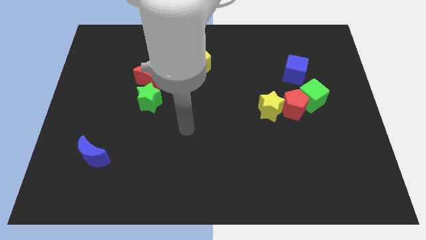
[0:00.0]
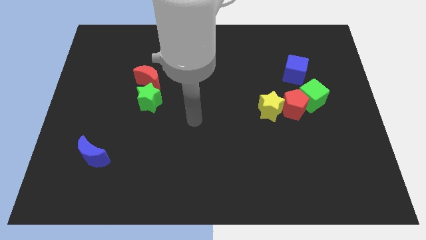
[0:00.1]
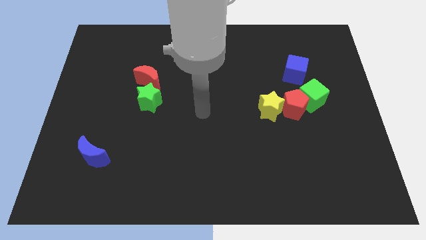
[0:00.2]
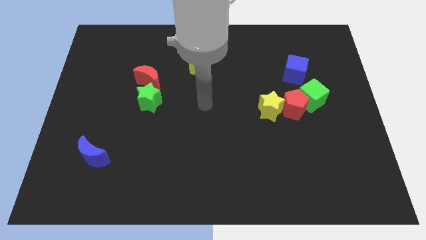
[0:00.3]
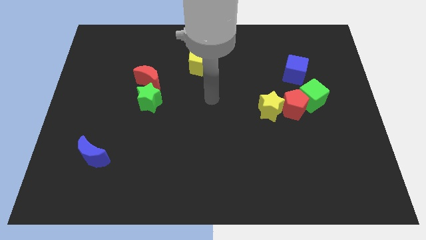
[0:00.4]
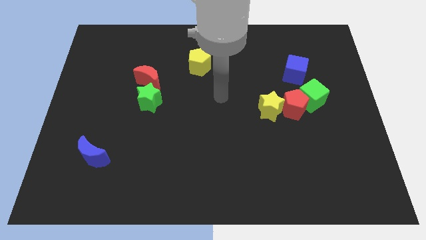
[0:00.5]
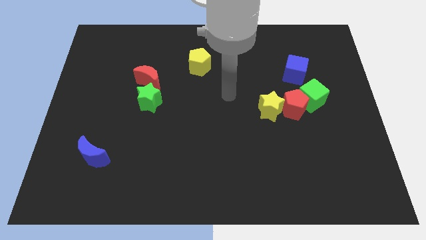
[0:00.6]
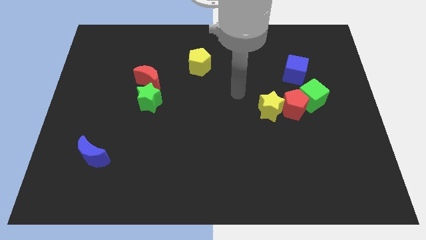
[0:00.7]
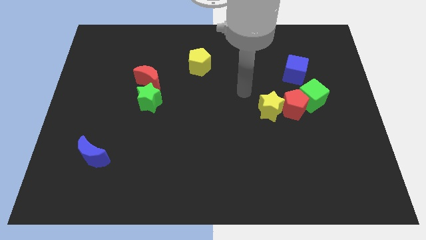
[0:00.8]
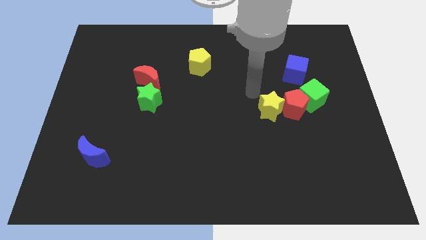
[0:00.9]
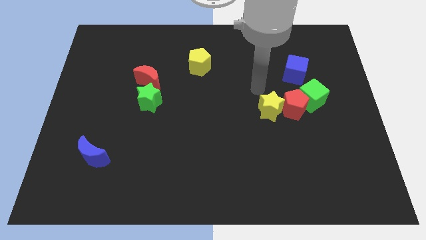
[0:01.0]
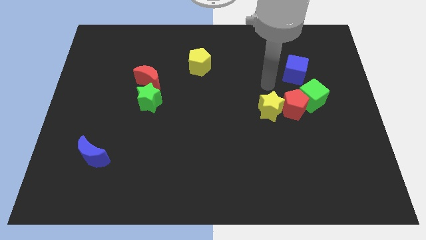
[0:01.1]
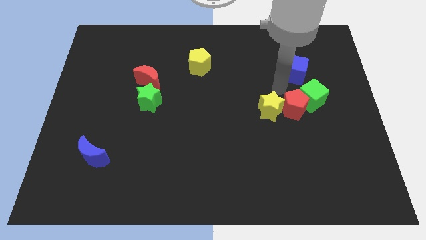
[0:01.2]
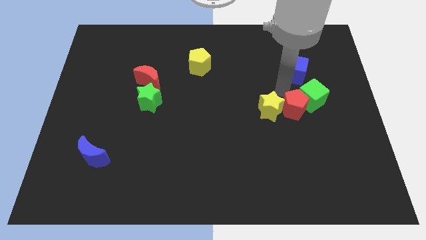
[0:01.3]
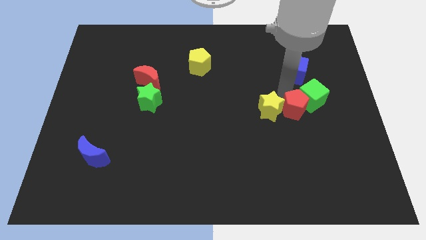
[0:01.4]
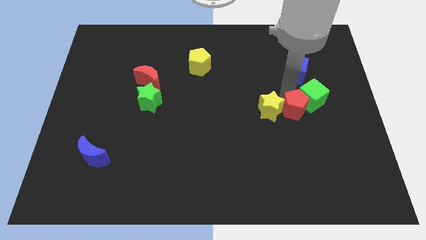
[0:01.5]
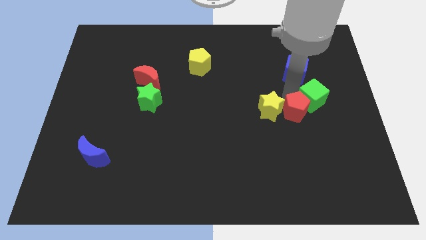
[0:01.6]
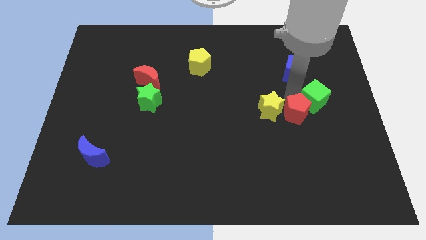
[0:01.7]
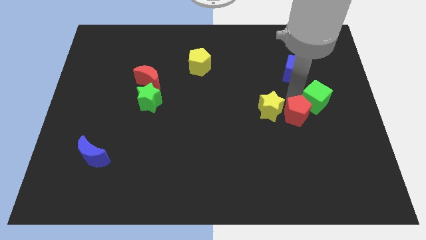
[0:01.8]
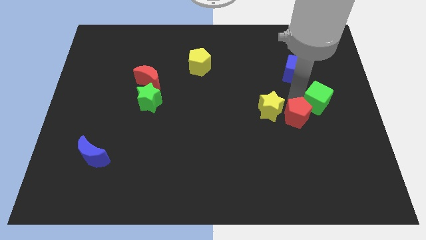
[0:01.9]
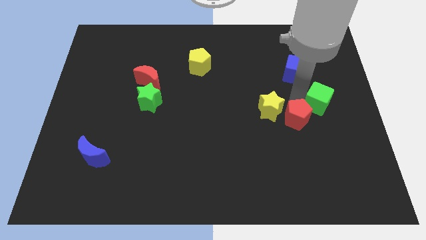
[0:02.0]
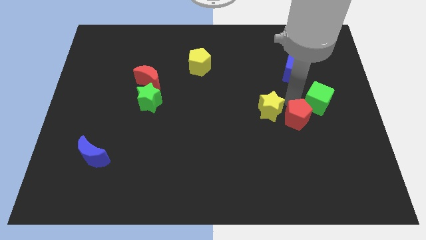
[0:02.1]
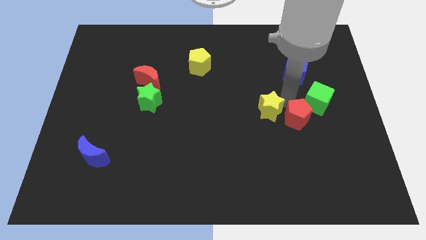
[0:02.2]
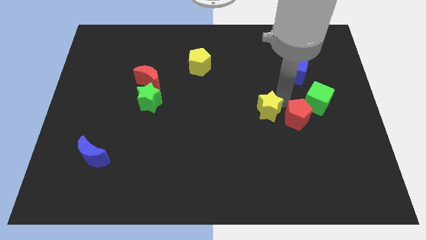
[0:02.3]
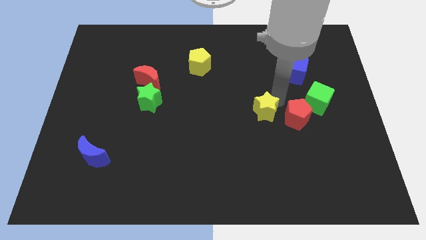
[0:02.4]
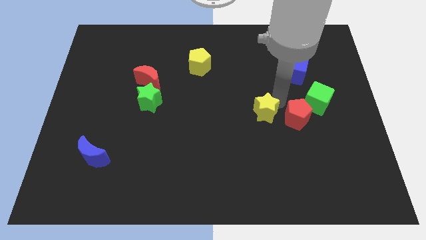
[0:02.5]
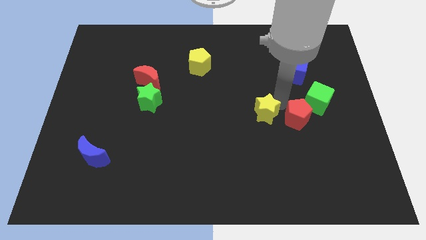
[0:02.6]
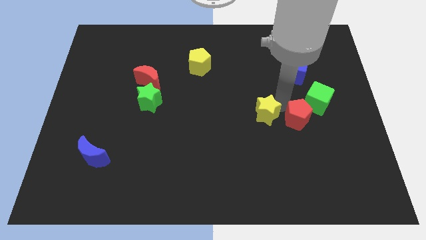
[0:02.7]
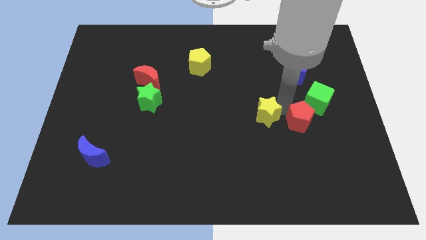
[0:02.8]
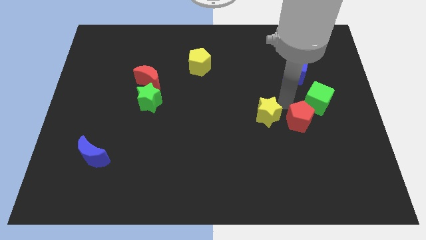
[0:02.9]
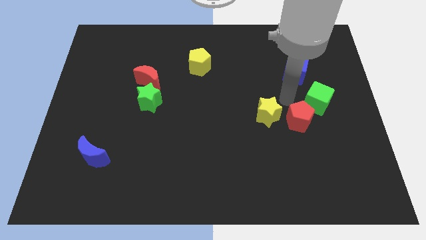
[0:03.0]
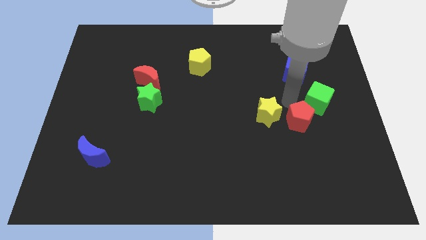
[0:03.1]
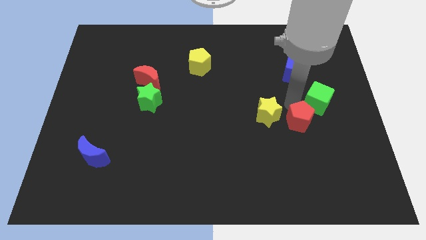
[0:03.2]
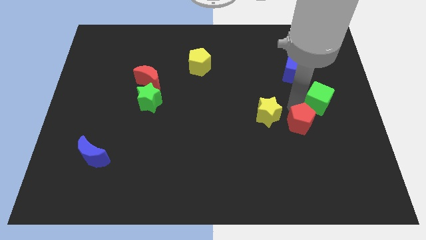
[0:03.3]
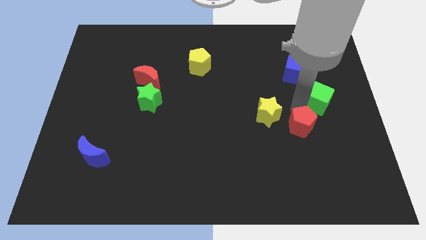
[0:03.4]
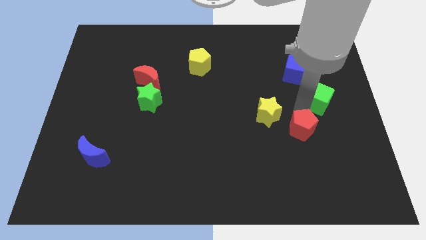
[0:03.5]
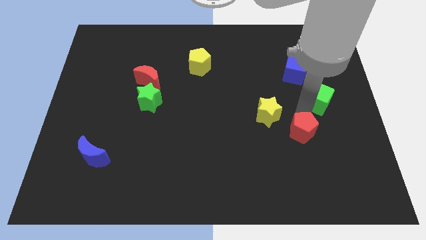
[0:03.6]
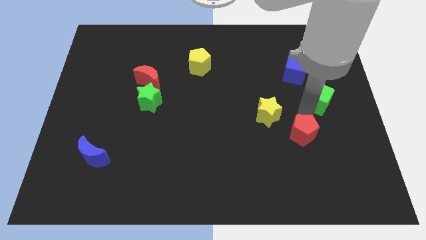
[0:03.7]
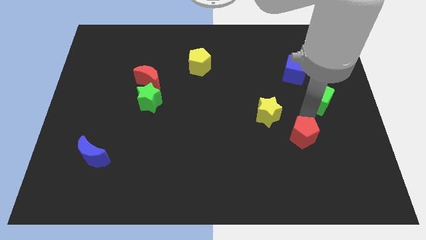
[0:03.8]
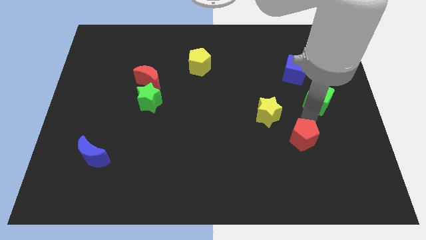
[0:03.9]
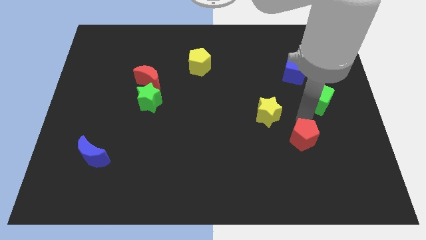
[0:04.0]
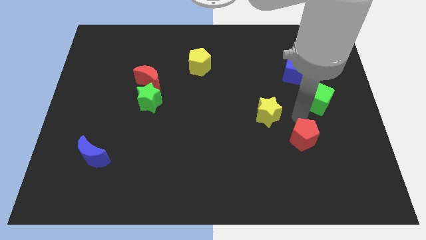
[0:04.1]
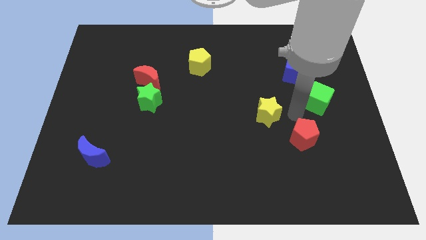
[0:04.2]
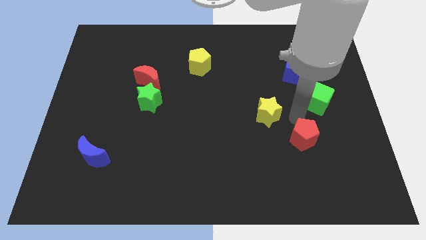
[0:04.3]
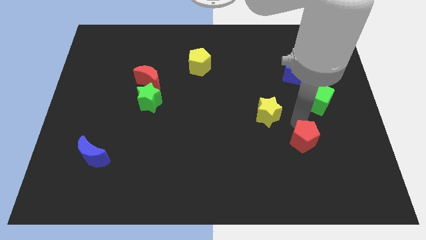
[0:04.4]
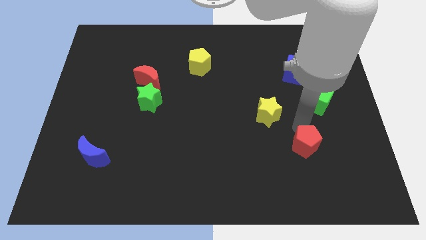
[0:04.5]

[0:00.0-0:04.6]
pull the red pentagon apart from the green cube and yellow star

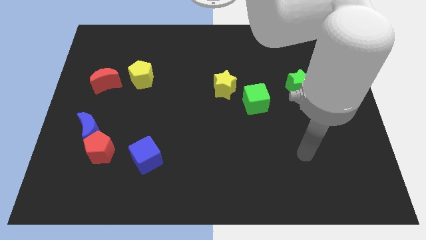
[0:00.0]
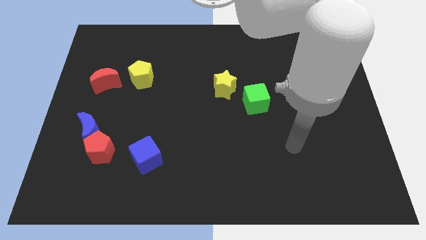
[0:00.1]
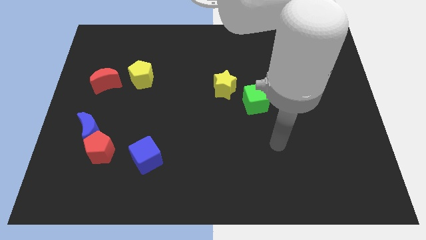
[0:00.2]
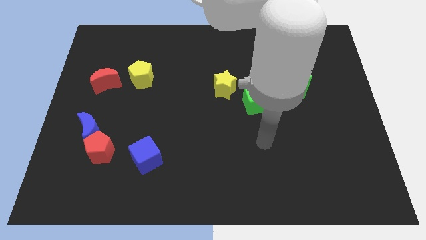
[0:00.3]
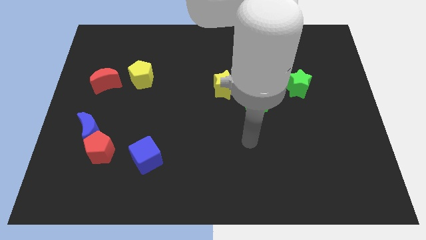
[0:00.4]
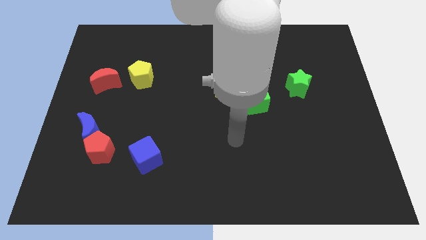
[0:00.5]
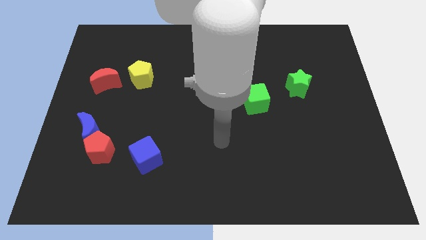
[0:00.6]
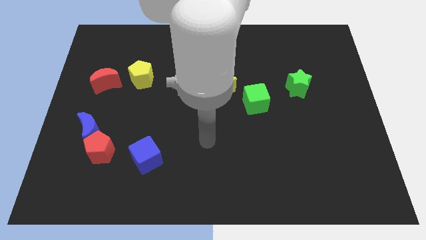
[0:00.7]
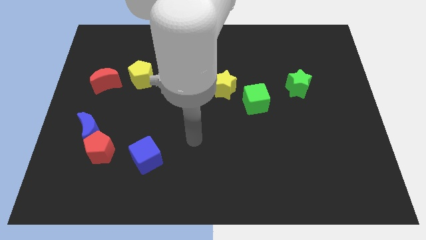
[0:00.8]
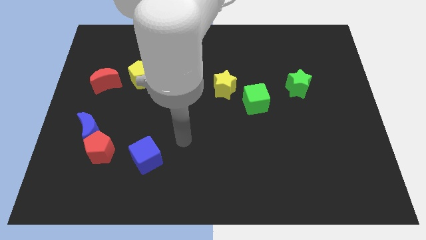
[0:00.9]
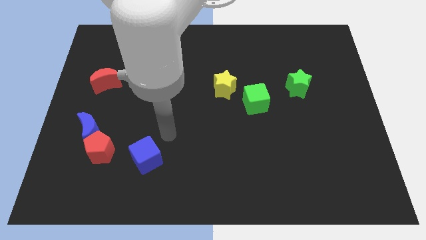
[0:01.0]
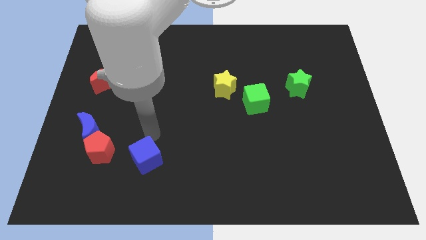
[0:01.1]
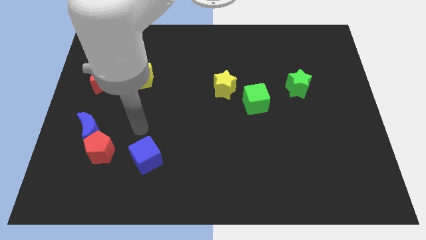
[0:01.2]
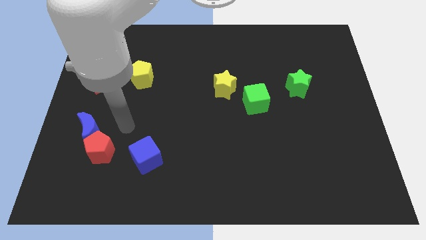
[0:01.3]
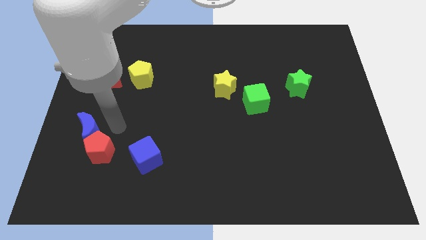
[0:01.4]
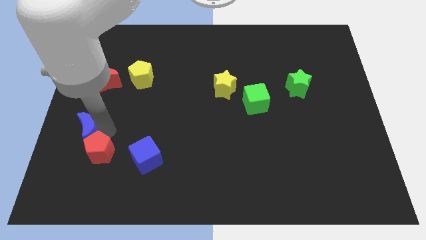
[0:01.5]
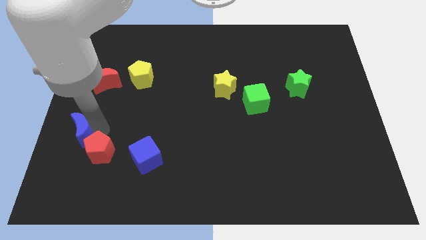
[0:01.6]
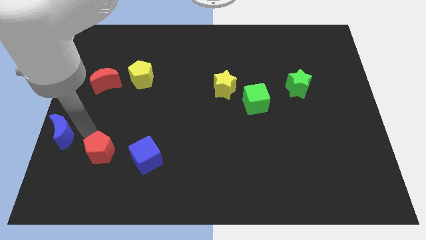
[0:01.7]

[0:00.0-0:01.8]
pull the red pentagon apart from the blue moon

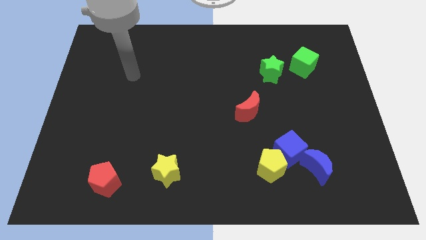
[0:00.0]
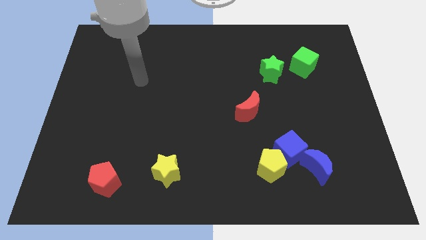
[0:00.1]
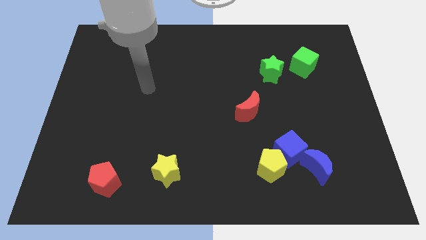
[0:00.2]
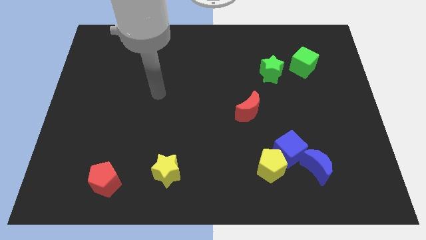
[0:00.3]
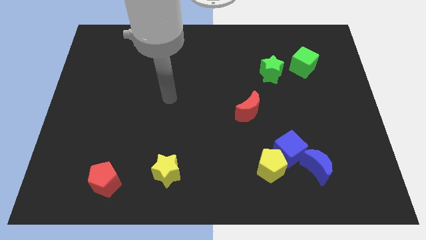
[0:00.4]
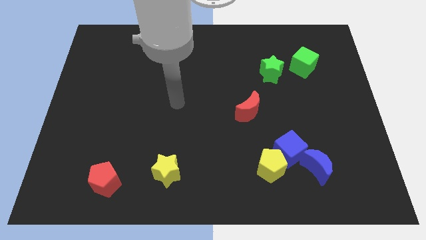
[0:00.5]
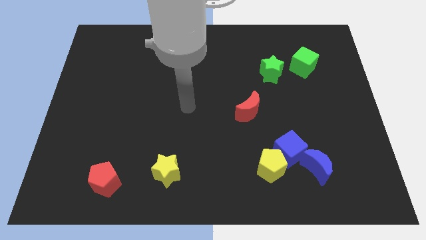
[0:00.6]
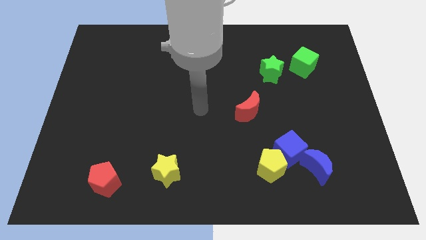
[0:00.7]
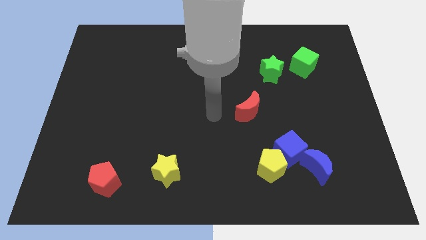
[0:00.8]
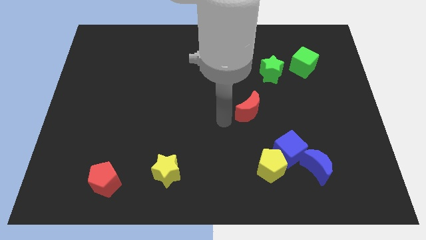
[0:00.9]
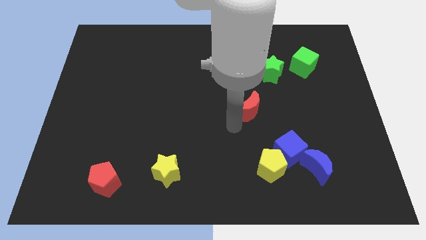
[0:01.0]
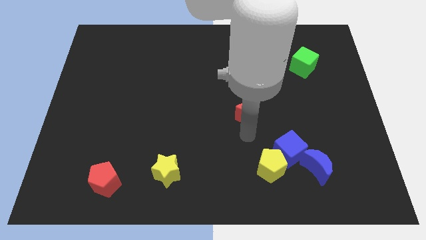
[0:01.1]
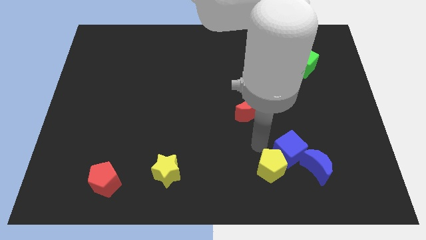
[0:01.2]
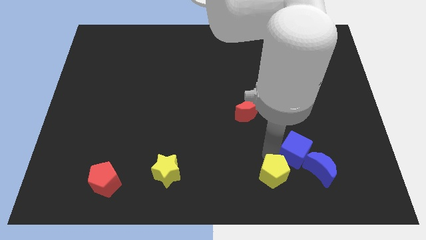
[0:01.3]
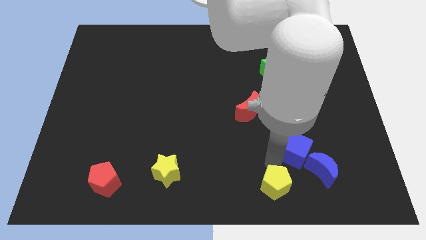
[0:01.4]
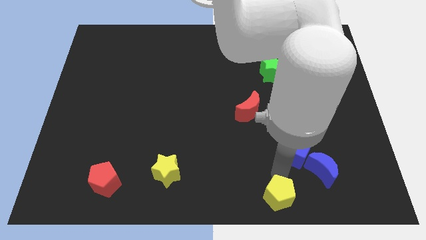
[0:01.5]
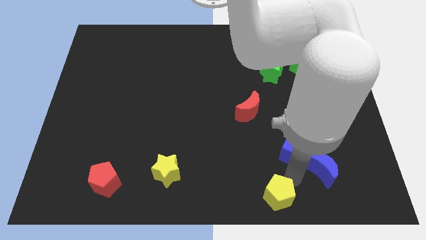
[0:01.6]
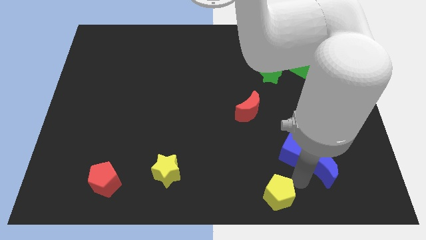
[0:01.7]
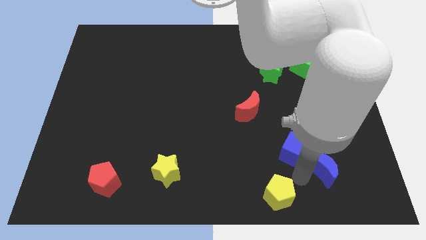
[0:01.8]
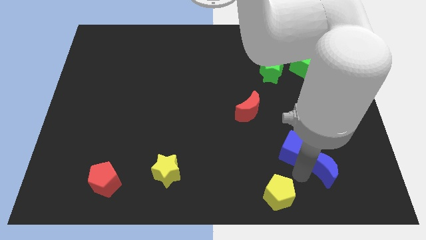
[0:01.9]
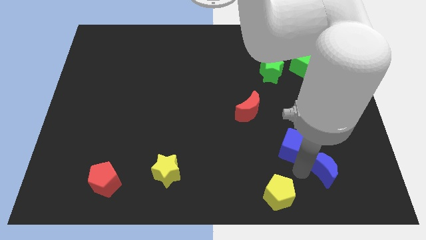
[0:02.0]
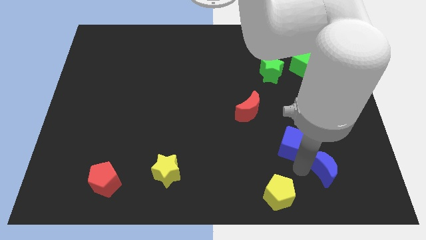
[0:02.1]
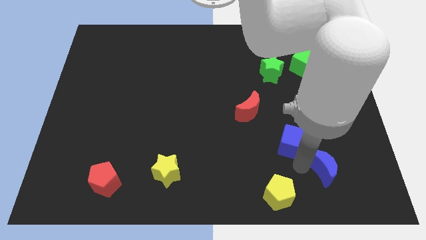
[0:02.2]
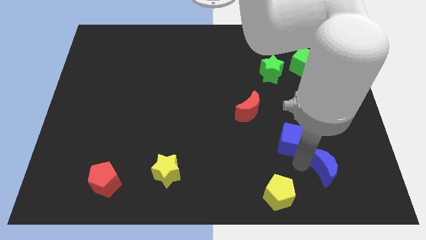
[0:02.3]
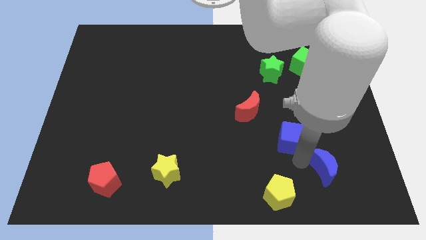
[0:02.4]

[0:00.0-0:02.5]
pull the blue cube apart from the yellow pentagon and blue moon

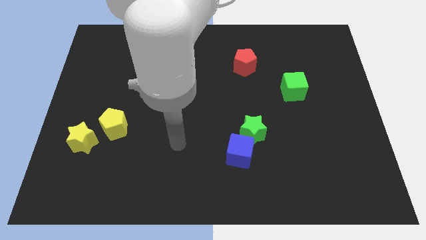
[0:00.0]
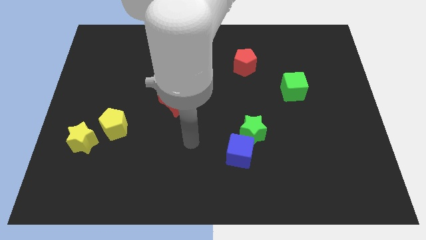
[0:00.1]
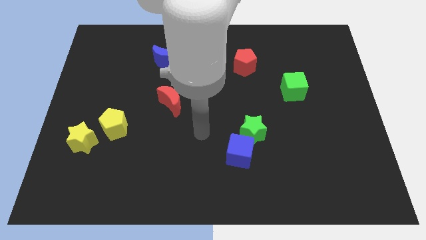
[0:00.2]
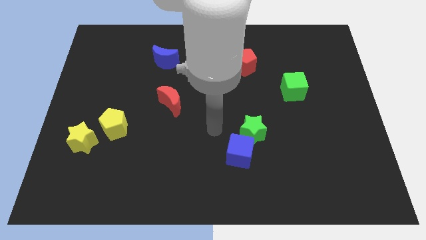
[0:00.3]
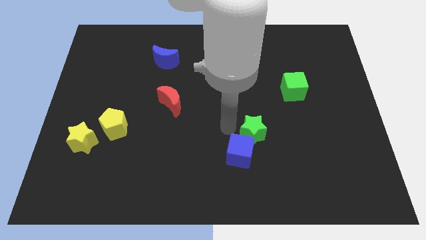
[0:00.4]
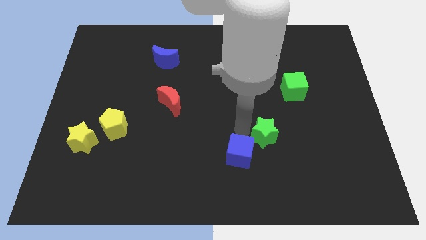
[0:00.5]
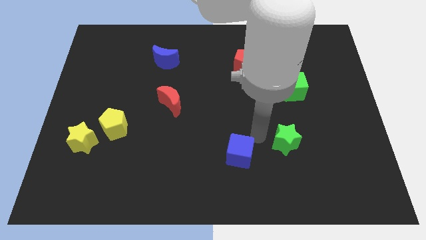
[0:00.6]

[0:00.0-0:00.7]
separate the blue cube from the green star
